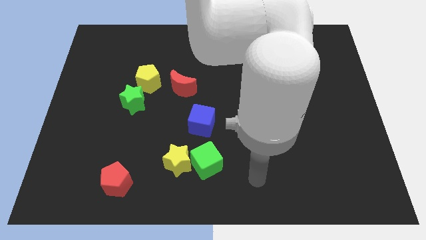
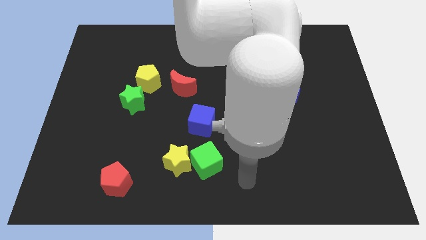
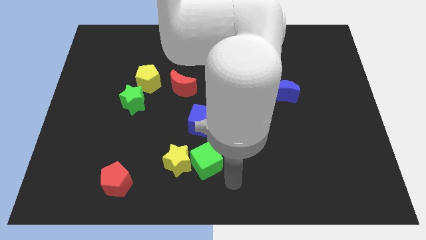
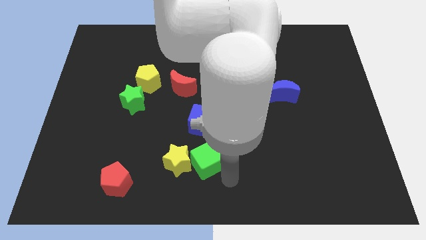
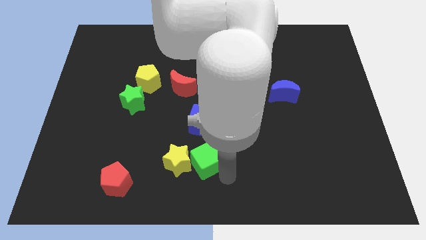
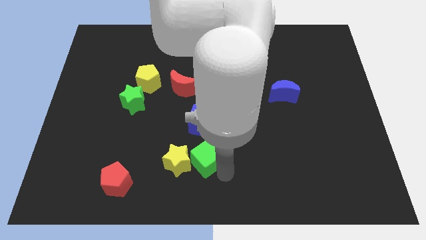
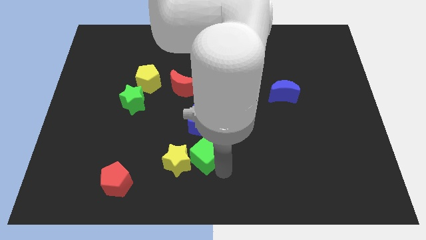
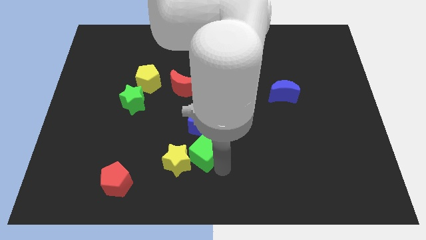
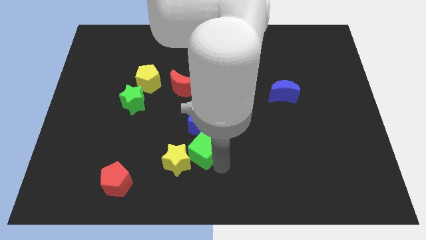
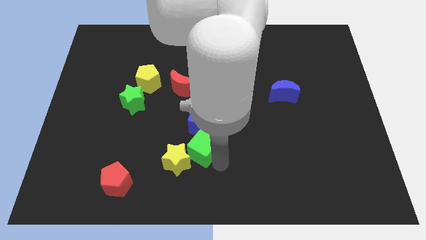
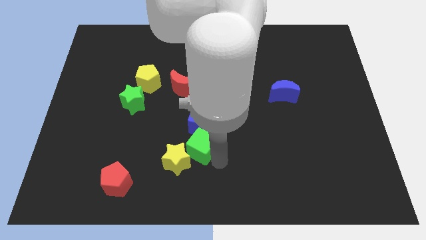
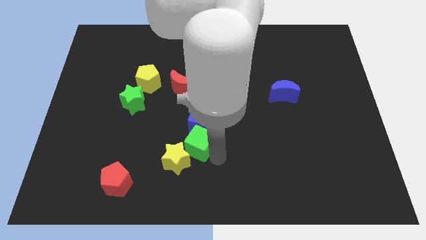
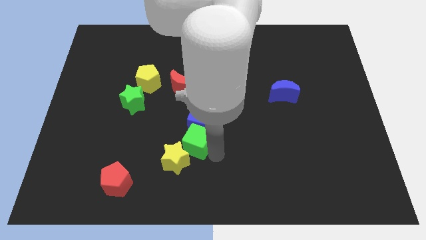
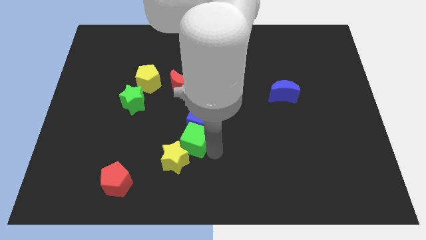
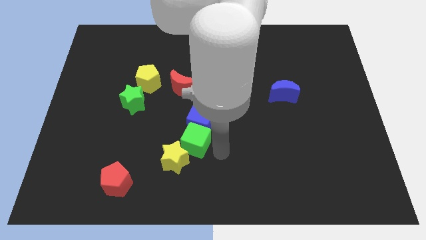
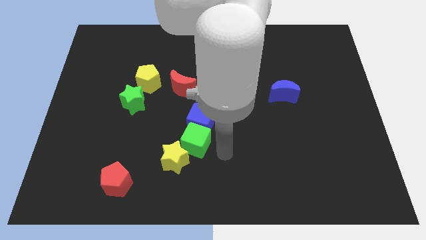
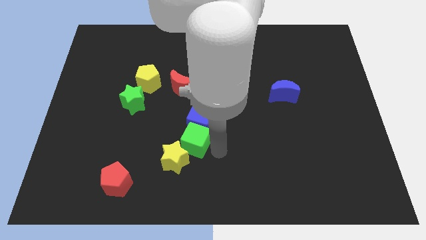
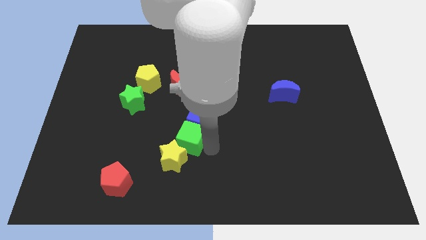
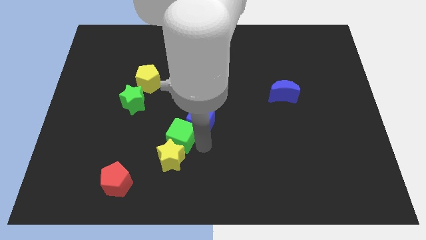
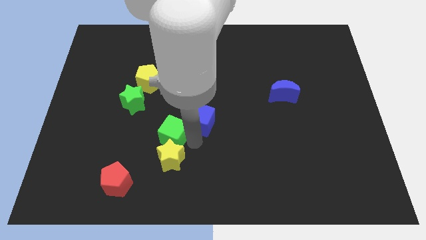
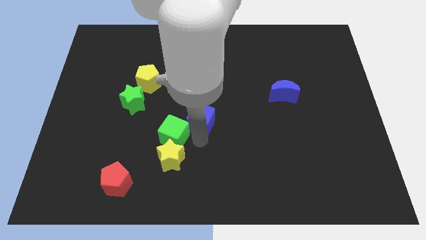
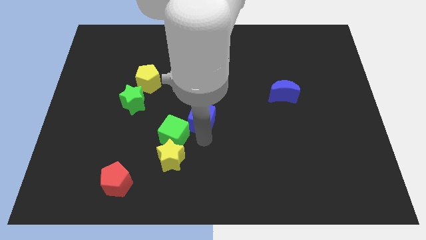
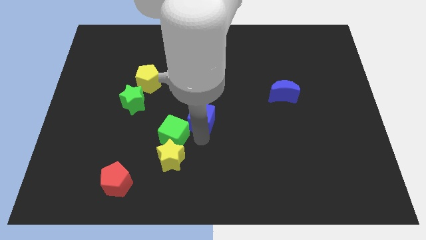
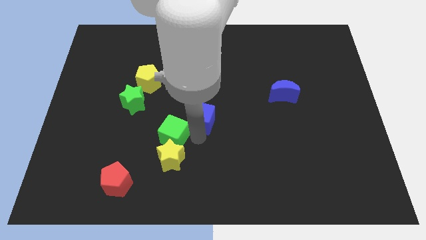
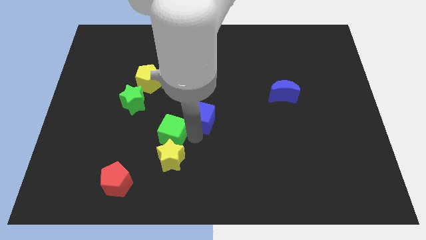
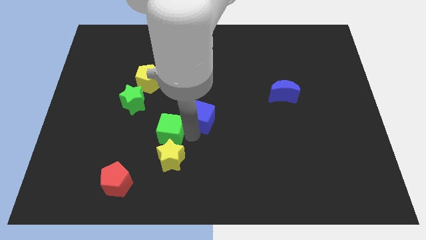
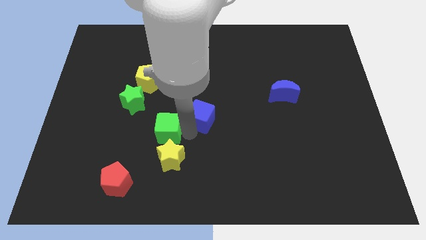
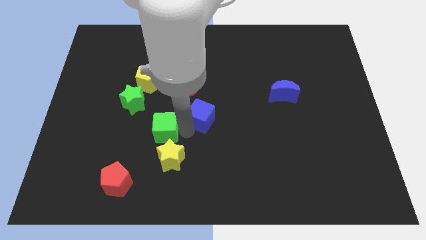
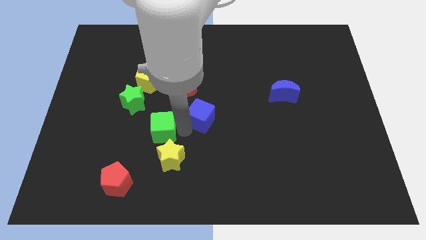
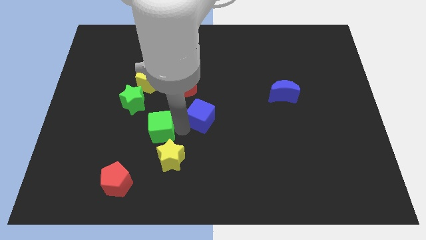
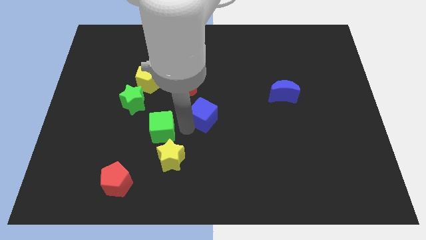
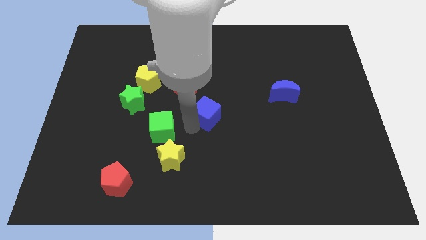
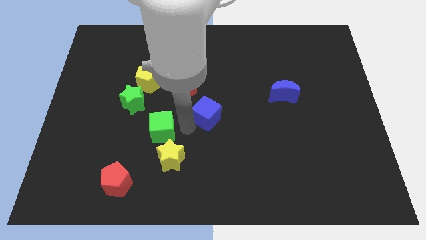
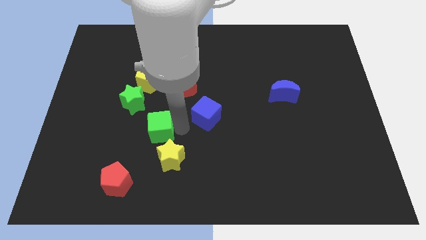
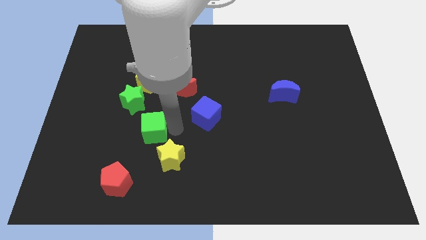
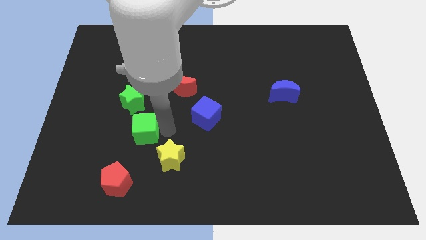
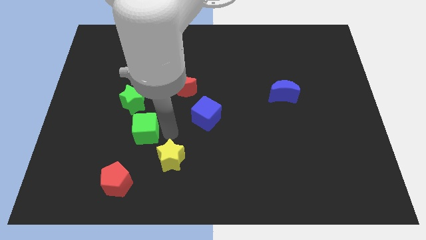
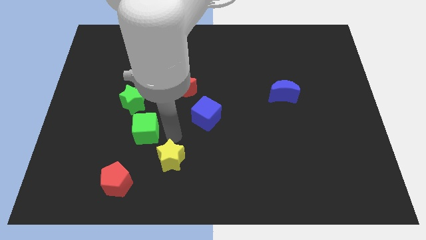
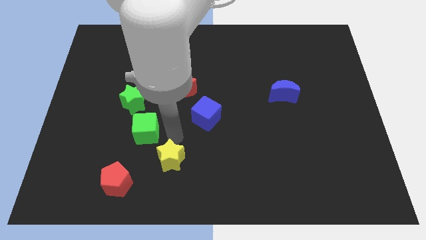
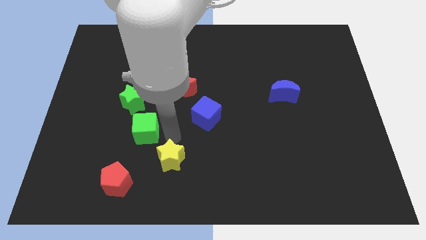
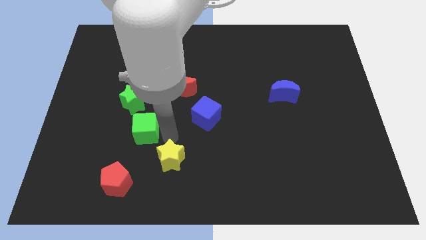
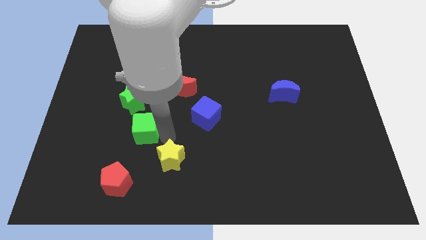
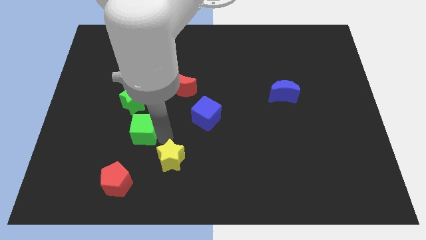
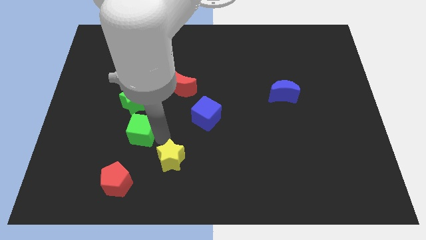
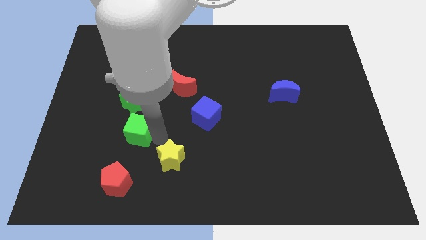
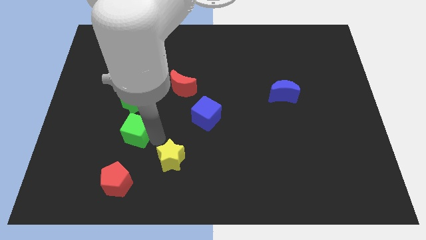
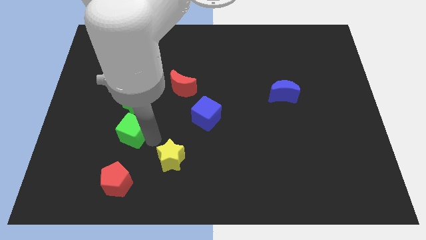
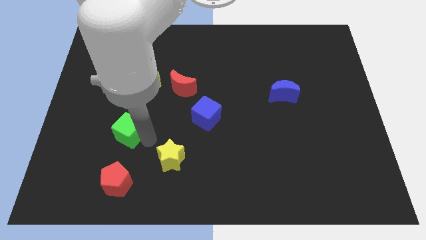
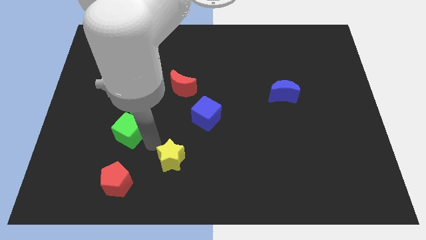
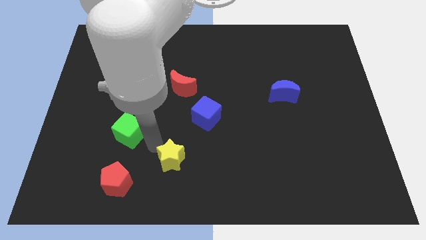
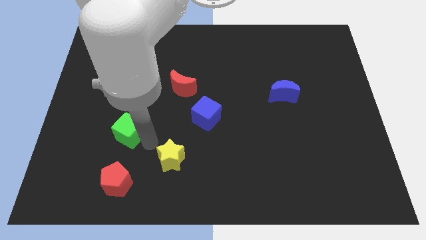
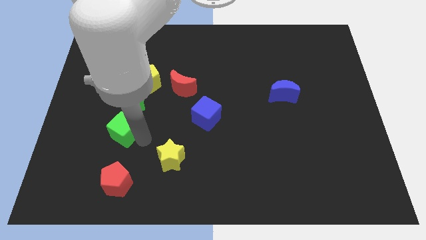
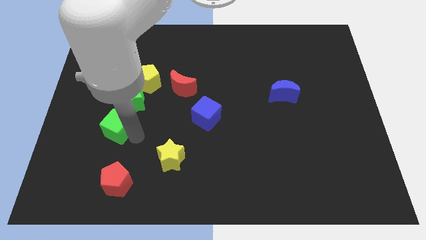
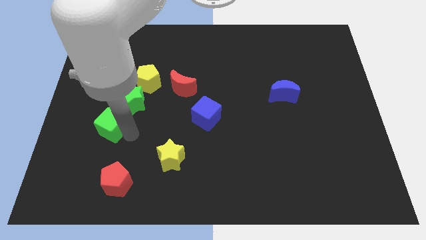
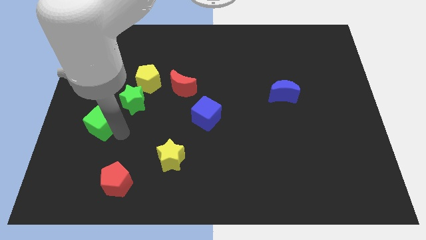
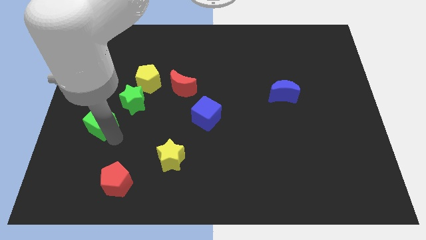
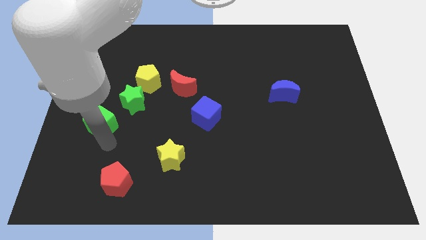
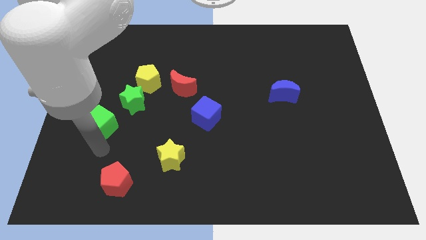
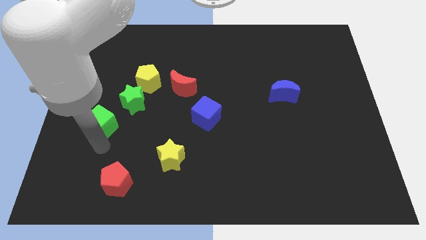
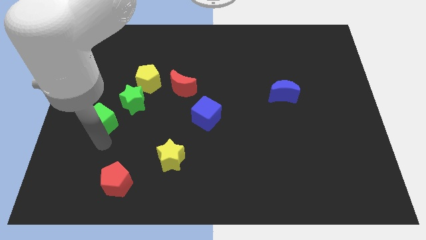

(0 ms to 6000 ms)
push the green cube upwards and left diagonally

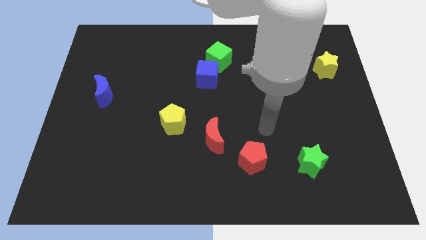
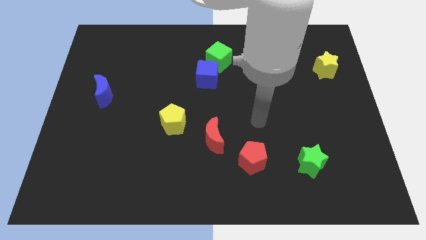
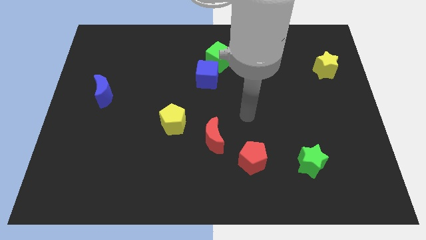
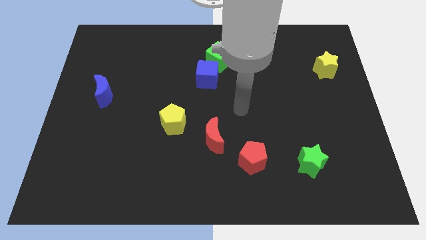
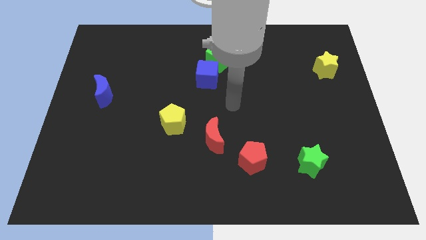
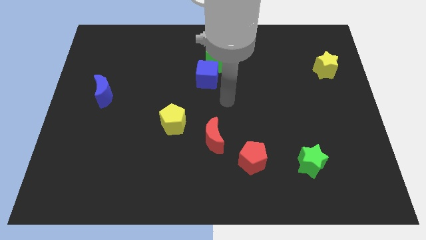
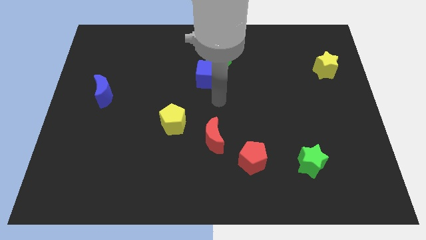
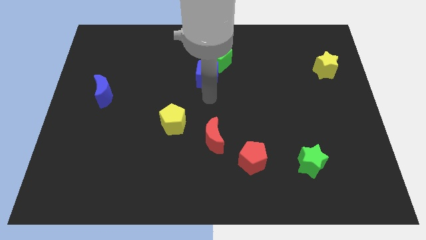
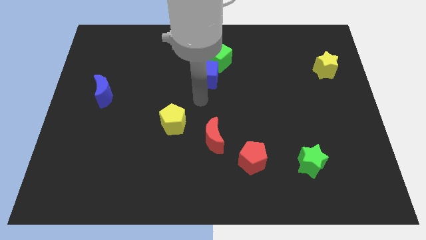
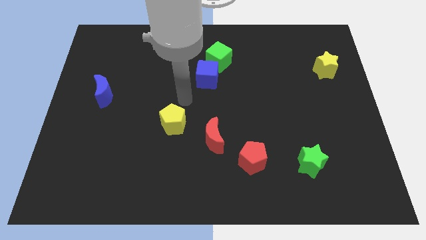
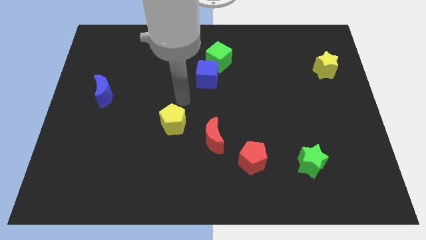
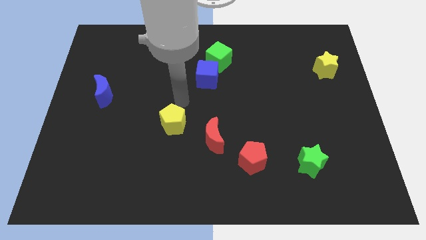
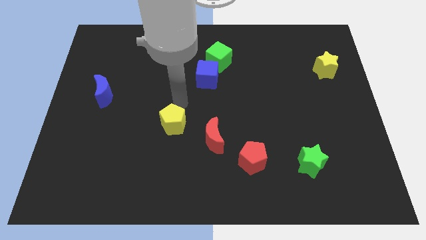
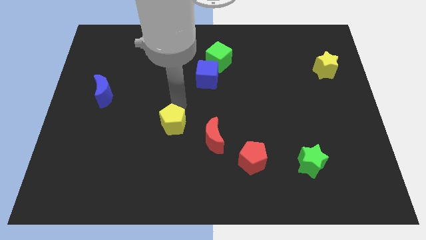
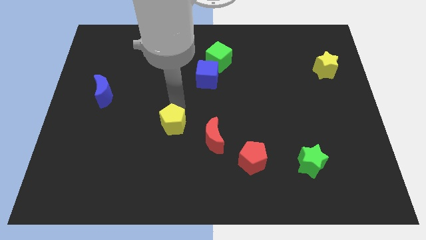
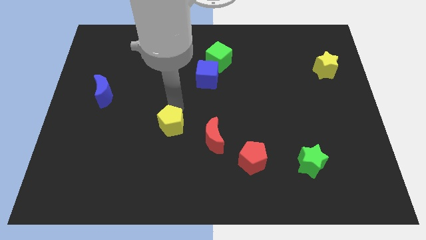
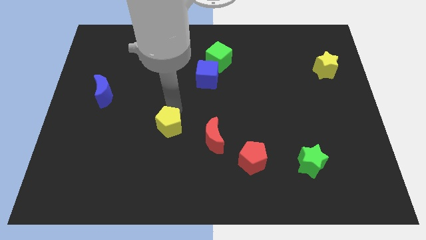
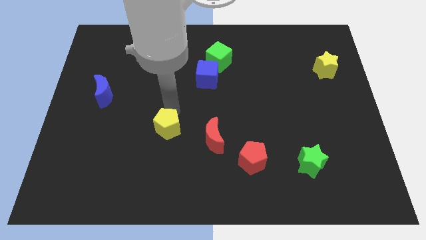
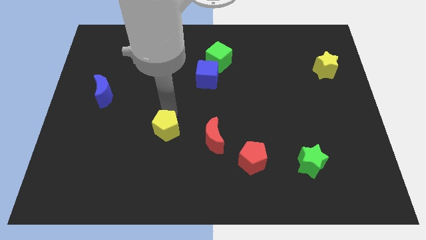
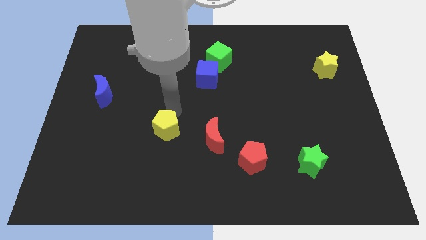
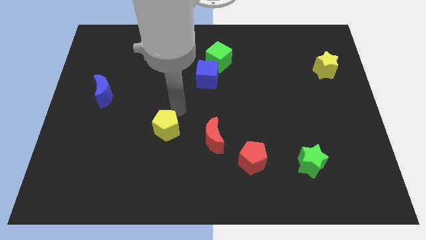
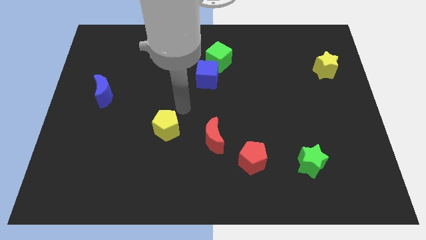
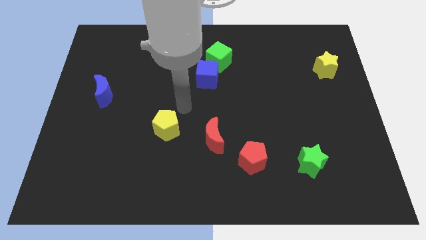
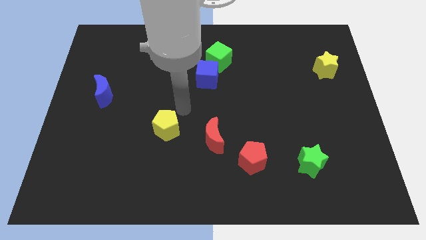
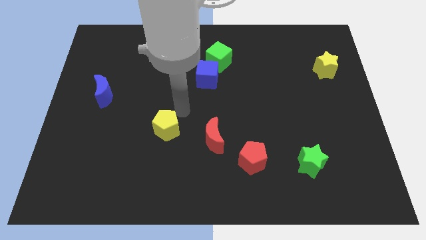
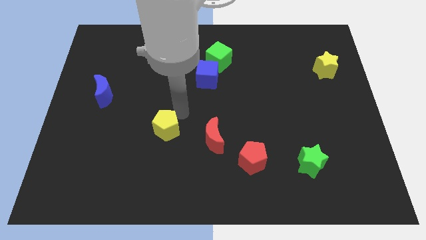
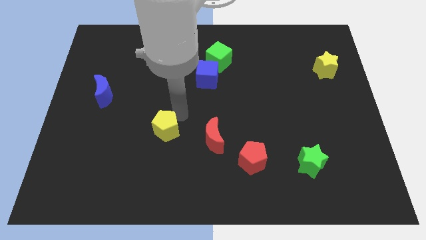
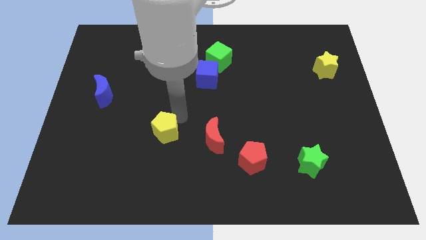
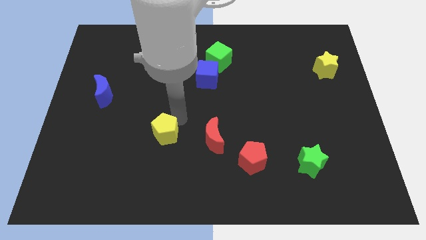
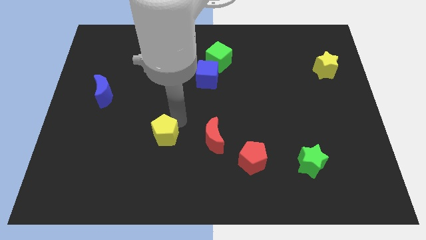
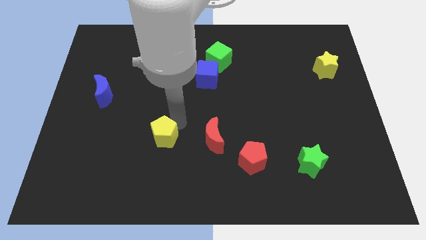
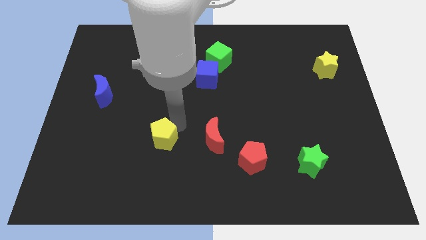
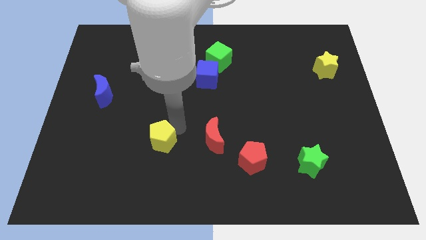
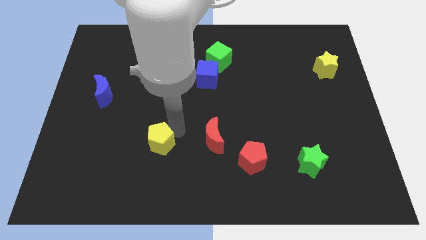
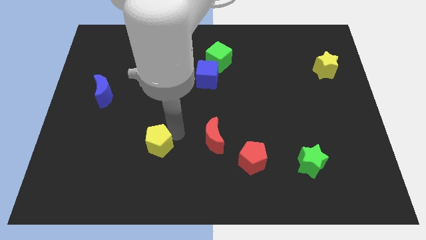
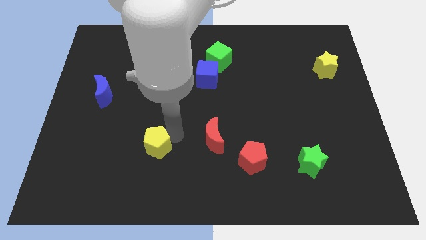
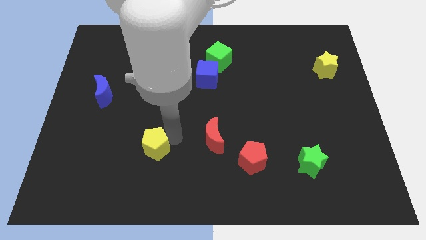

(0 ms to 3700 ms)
slide the yellow pentagon diagonally downwards and left a little
